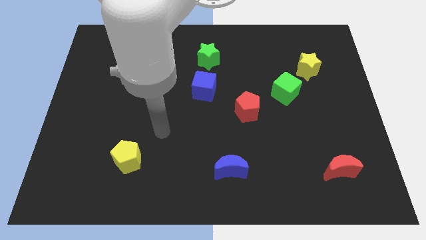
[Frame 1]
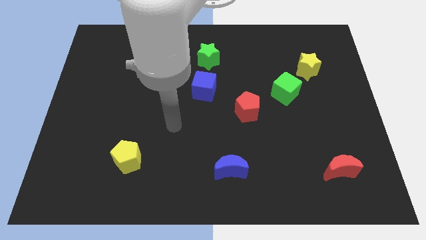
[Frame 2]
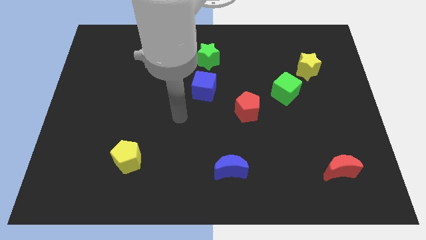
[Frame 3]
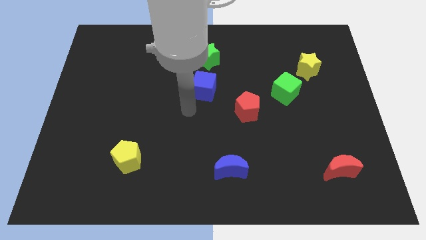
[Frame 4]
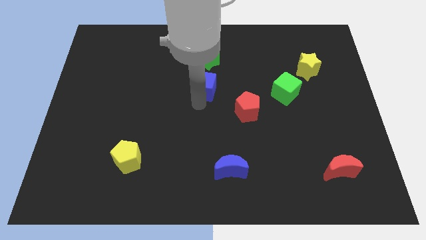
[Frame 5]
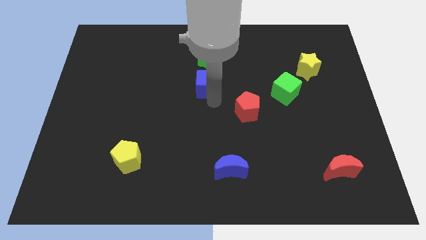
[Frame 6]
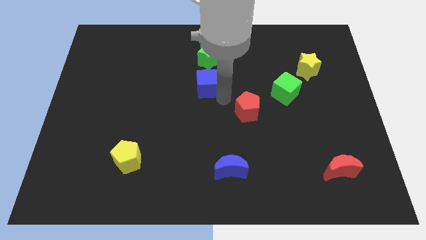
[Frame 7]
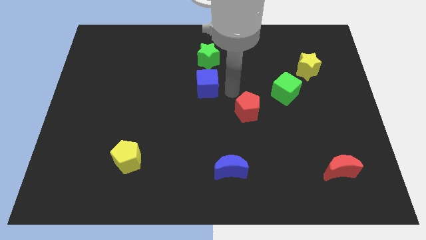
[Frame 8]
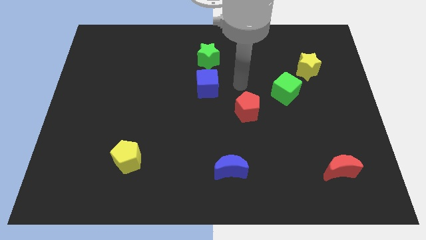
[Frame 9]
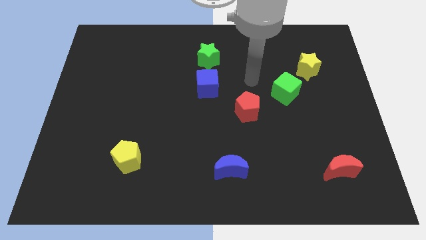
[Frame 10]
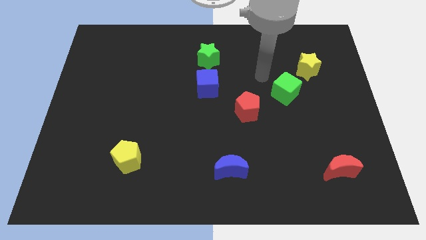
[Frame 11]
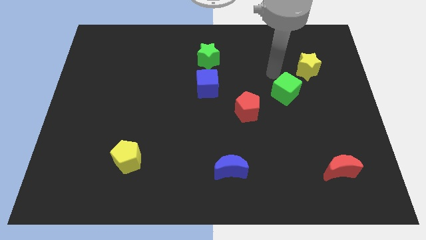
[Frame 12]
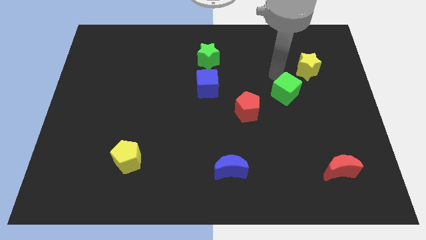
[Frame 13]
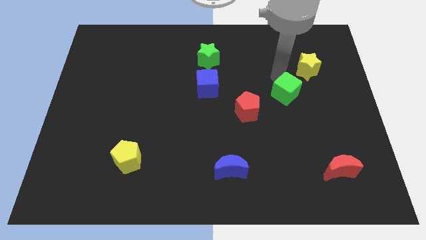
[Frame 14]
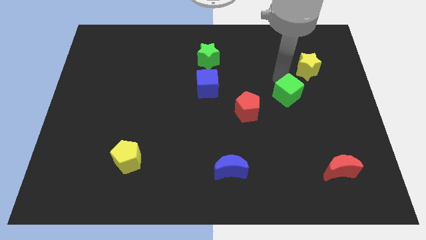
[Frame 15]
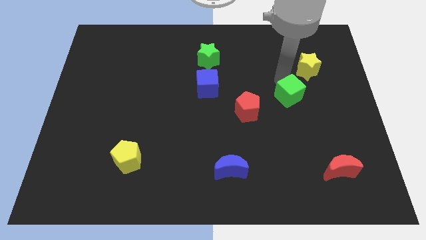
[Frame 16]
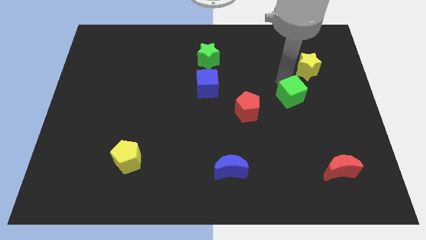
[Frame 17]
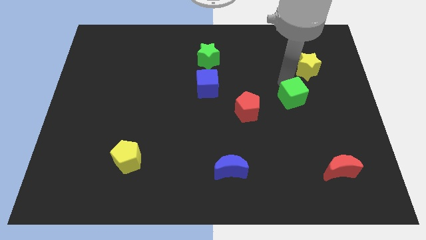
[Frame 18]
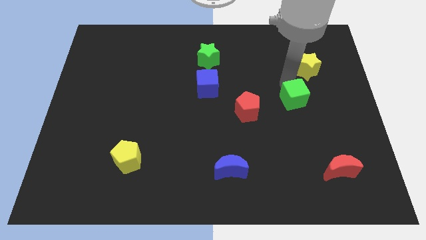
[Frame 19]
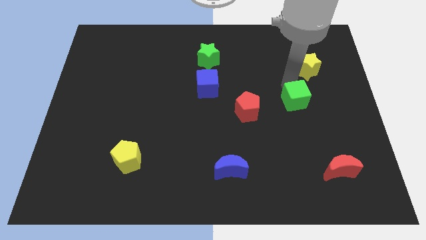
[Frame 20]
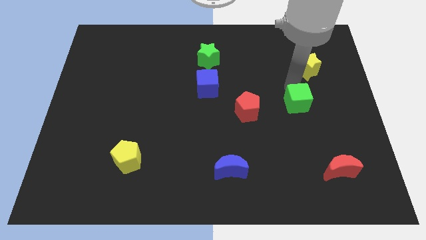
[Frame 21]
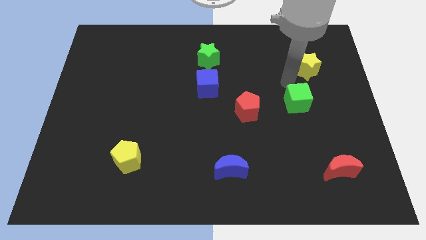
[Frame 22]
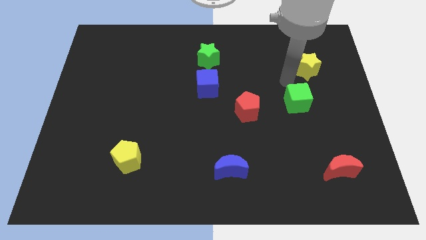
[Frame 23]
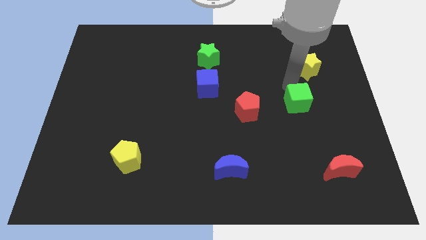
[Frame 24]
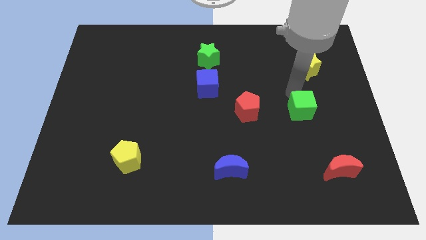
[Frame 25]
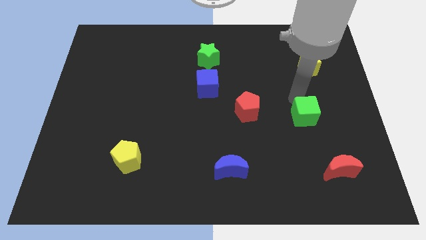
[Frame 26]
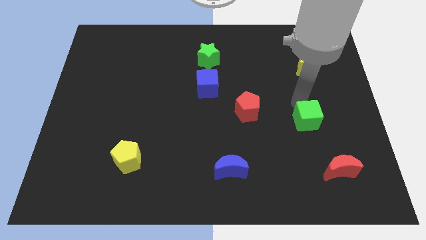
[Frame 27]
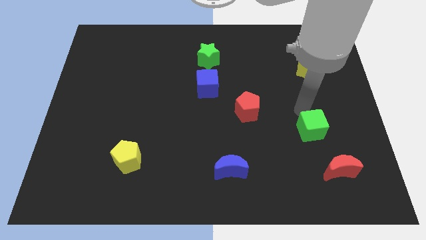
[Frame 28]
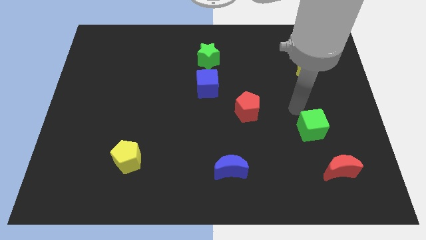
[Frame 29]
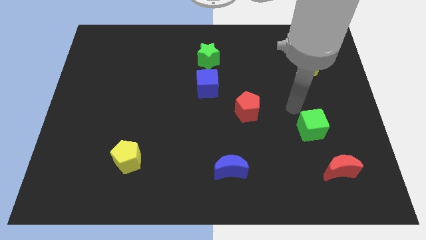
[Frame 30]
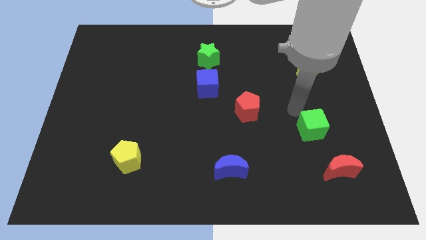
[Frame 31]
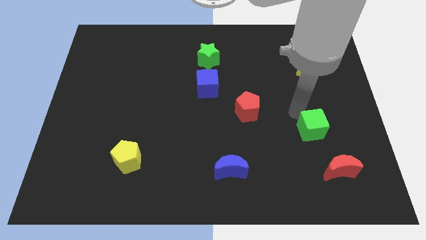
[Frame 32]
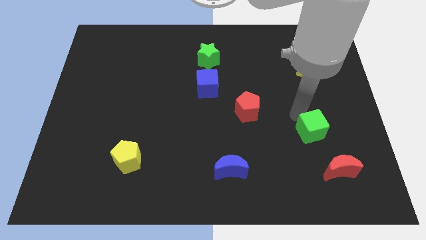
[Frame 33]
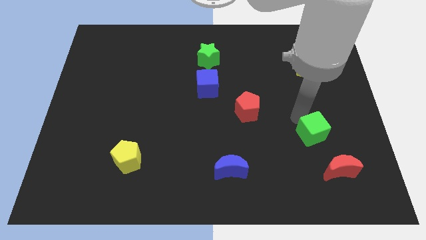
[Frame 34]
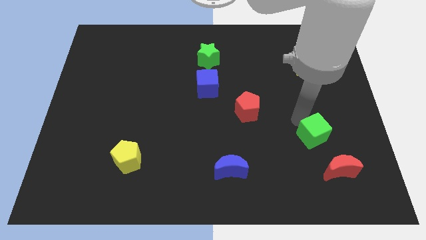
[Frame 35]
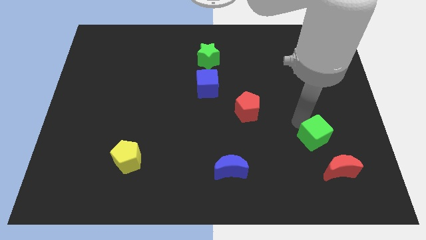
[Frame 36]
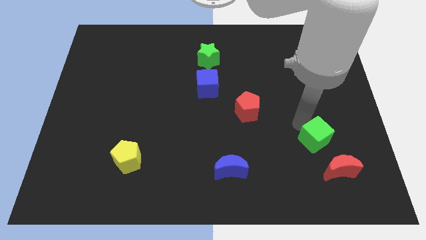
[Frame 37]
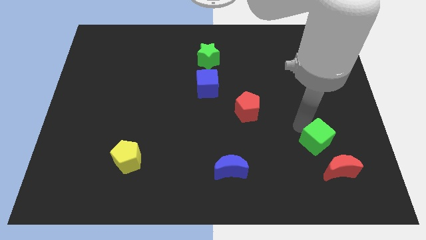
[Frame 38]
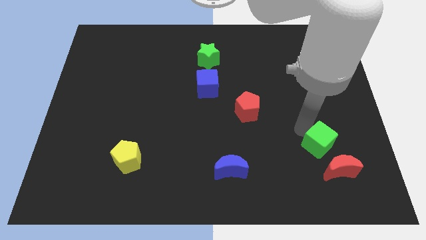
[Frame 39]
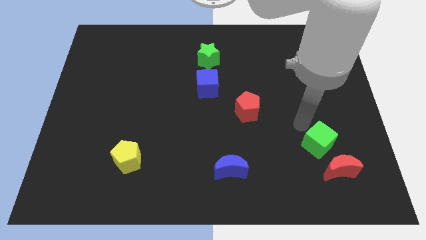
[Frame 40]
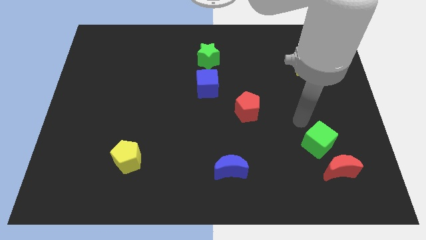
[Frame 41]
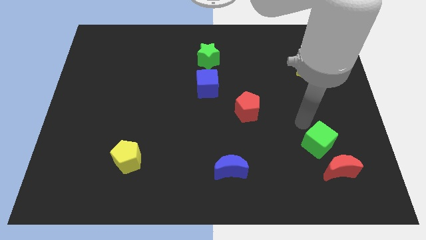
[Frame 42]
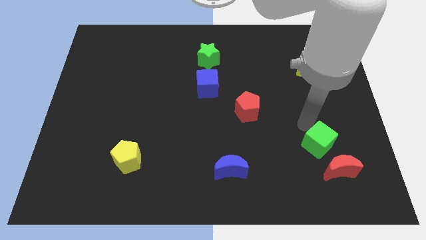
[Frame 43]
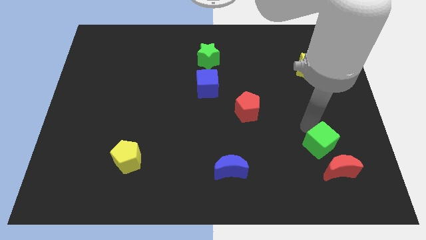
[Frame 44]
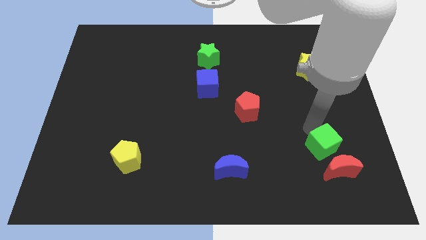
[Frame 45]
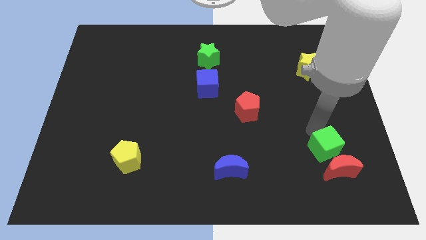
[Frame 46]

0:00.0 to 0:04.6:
move the green cube next to the red moon

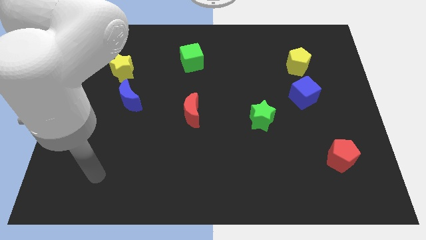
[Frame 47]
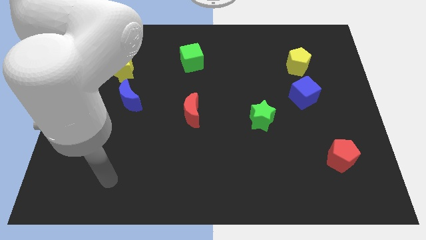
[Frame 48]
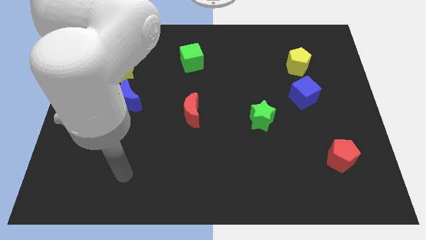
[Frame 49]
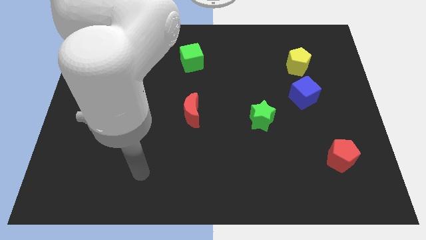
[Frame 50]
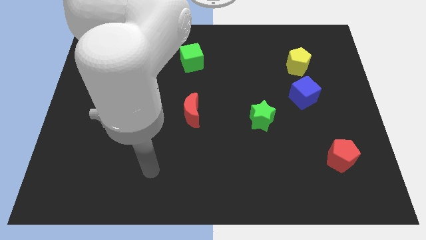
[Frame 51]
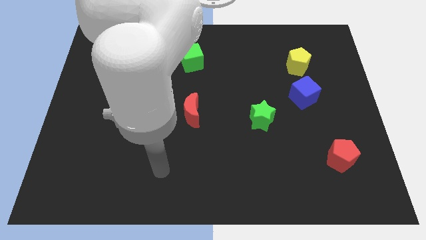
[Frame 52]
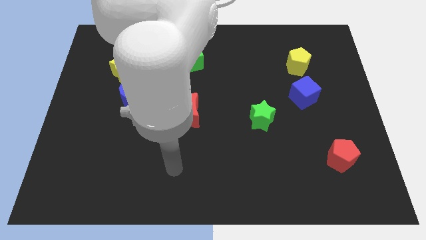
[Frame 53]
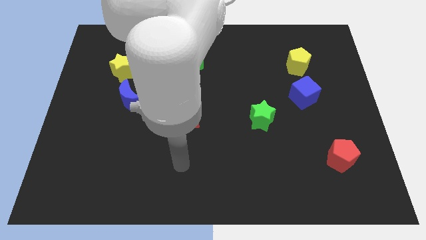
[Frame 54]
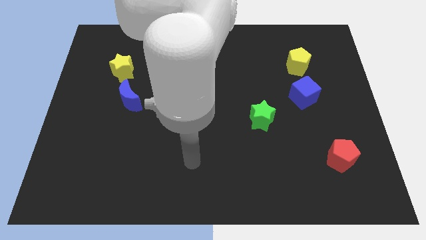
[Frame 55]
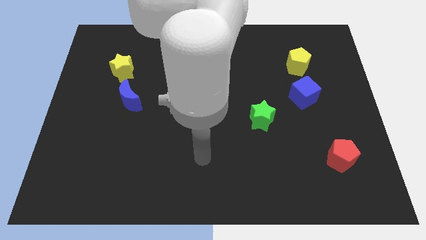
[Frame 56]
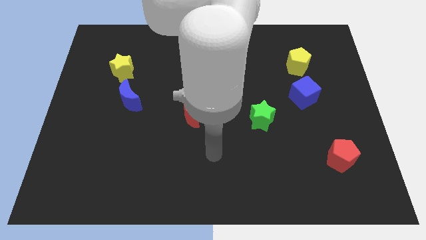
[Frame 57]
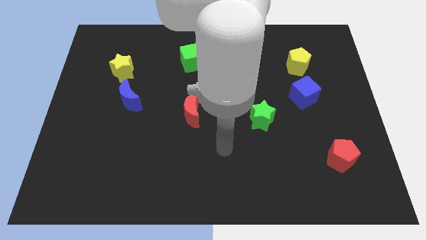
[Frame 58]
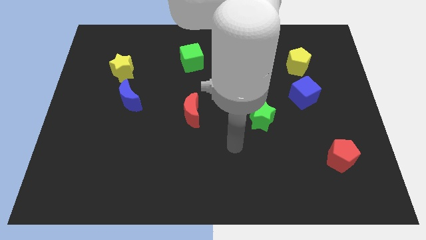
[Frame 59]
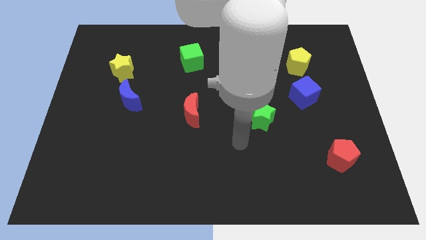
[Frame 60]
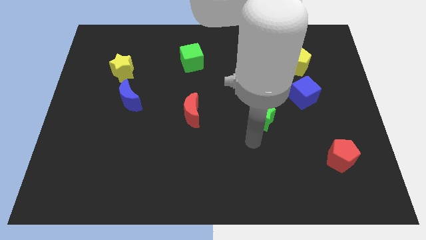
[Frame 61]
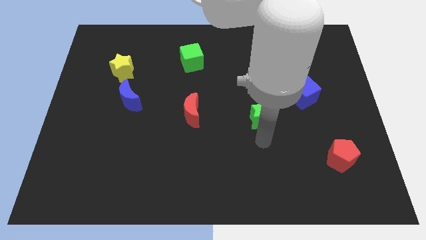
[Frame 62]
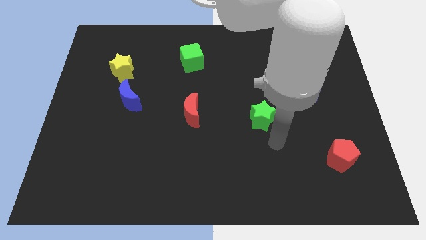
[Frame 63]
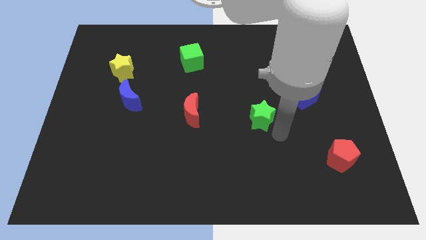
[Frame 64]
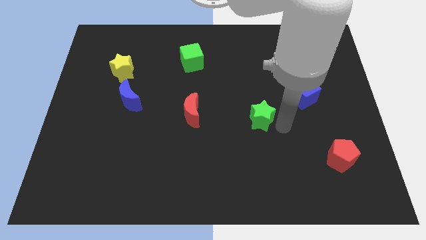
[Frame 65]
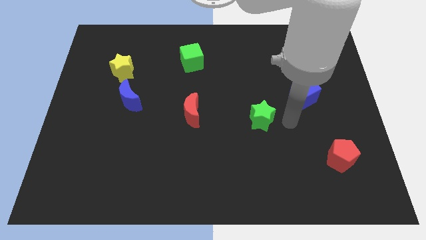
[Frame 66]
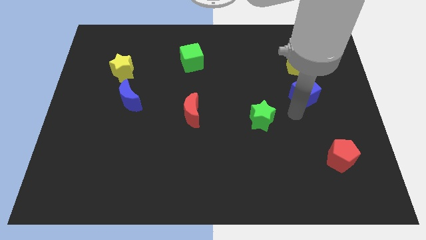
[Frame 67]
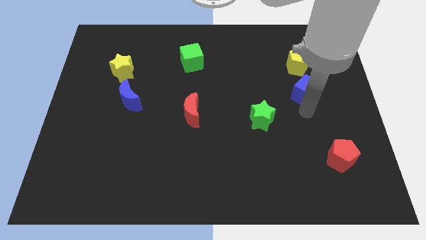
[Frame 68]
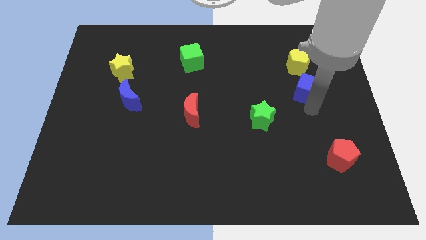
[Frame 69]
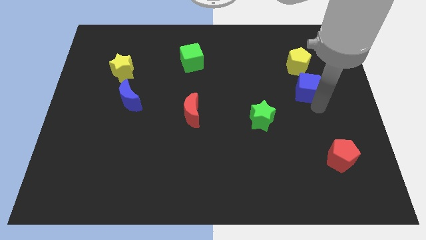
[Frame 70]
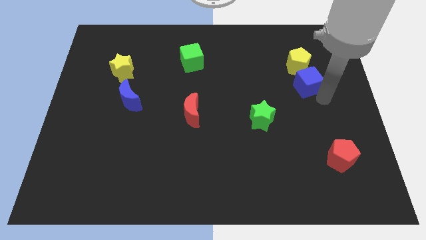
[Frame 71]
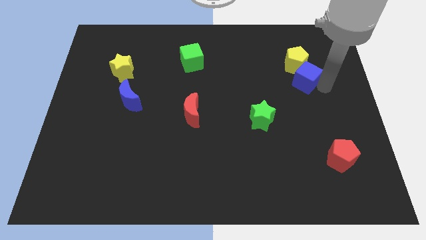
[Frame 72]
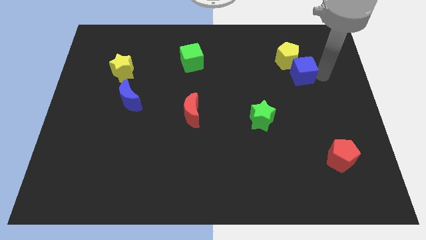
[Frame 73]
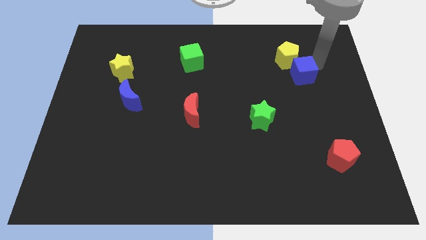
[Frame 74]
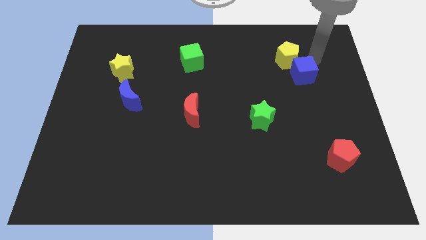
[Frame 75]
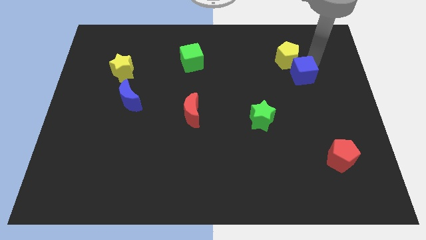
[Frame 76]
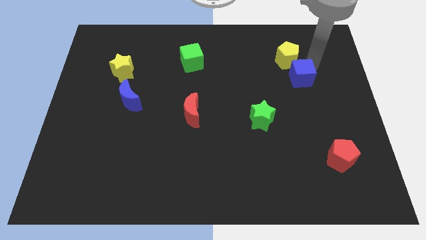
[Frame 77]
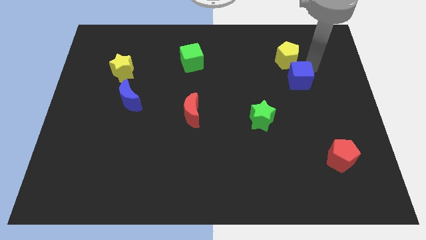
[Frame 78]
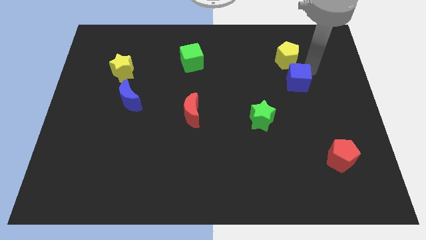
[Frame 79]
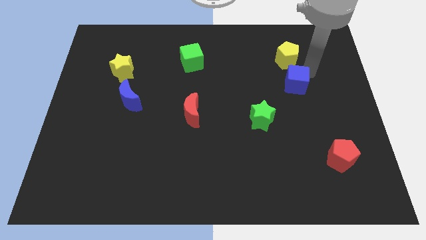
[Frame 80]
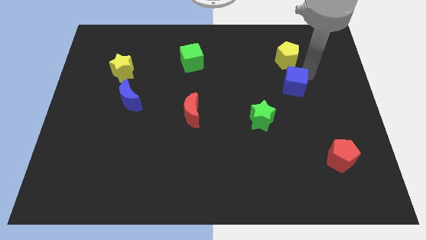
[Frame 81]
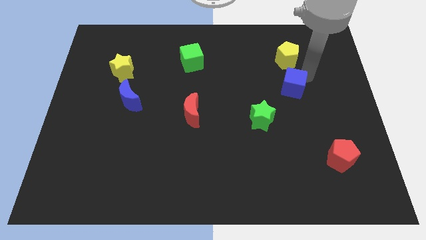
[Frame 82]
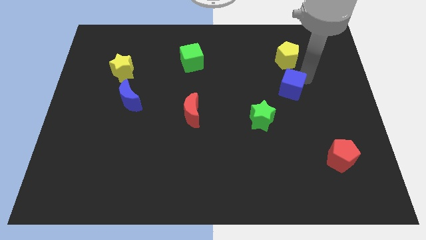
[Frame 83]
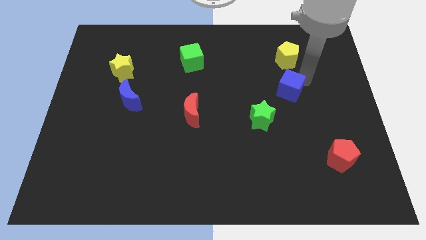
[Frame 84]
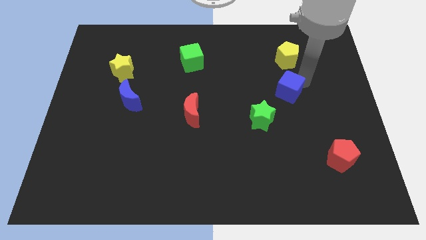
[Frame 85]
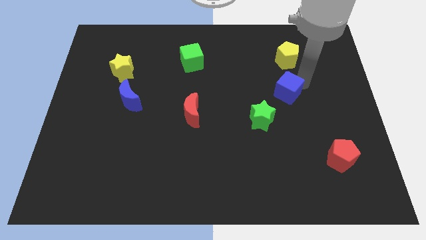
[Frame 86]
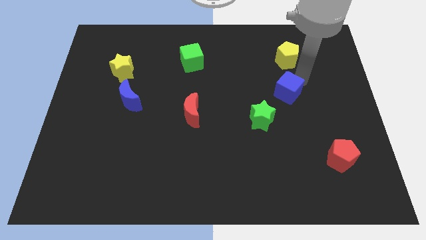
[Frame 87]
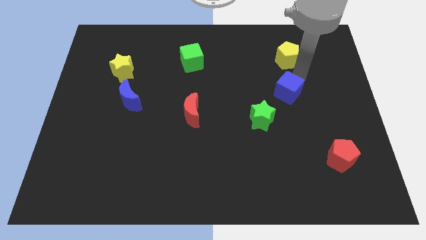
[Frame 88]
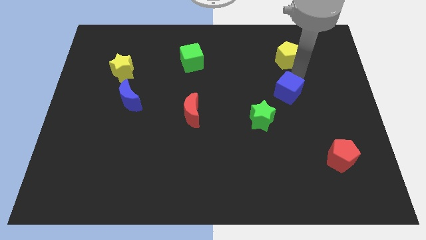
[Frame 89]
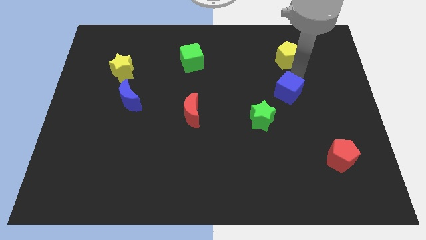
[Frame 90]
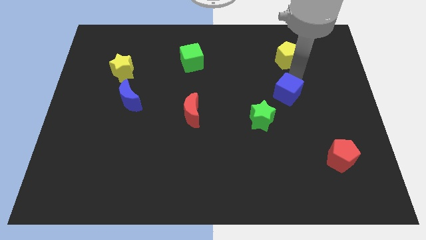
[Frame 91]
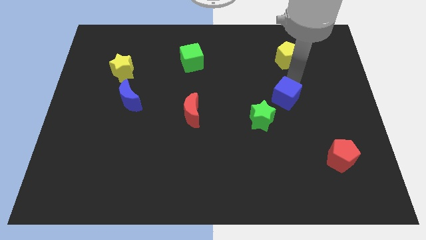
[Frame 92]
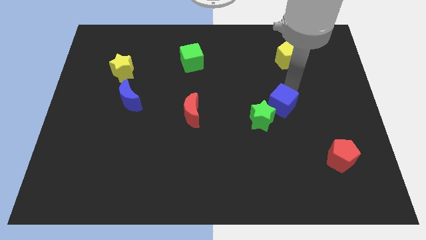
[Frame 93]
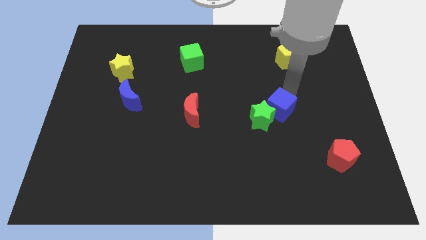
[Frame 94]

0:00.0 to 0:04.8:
push the blue cube to the green star
